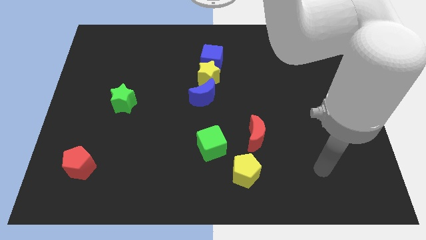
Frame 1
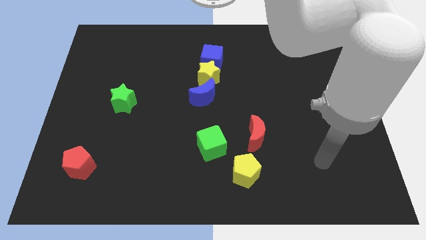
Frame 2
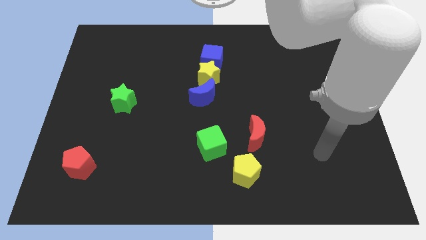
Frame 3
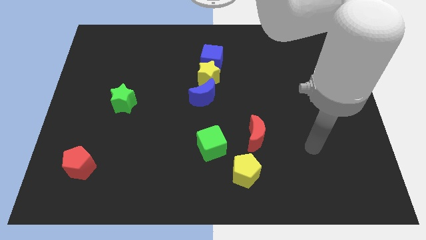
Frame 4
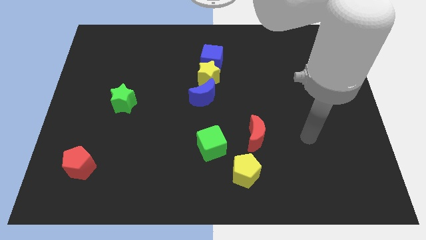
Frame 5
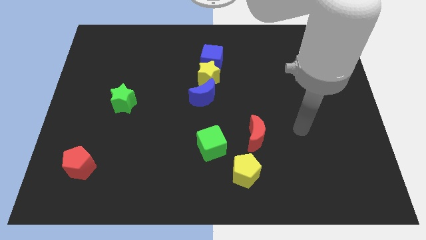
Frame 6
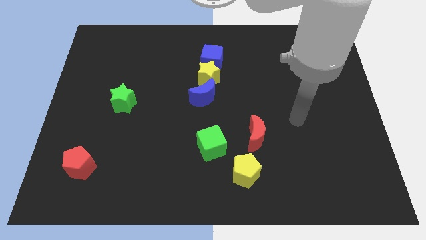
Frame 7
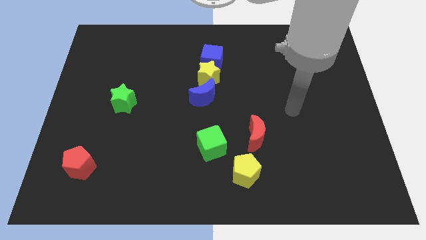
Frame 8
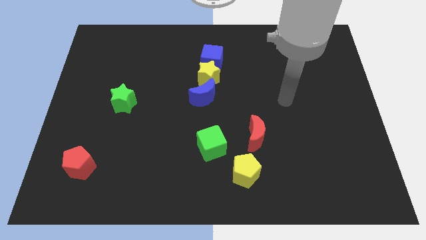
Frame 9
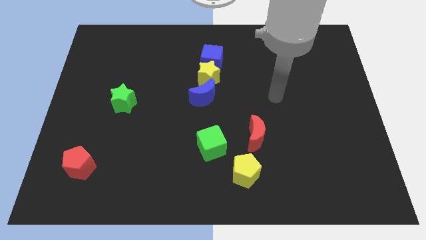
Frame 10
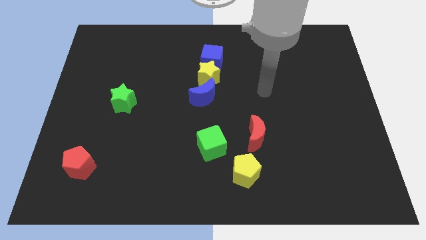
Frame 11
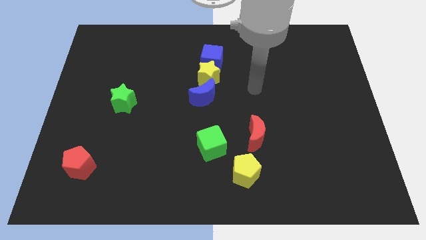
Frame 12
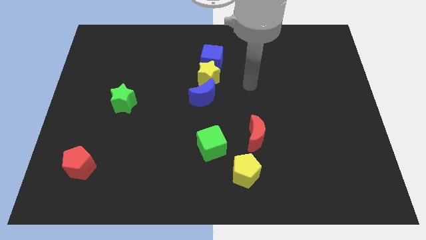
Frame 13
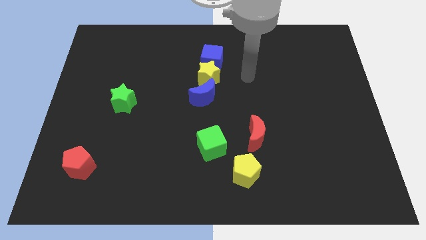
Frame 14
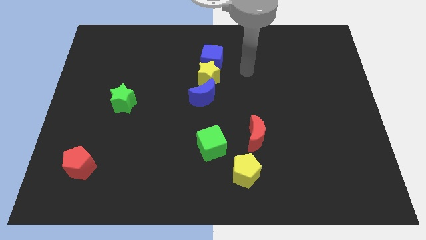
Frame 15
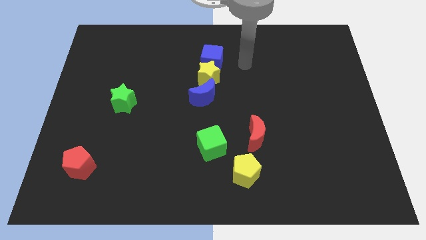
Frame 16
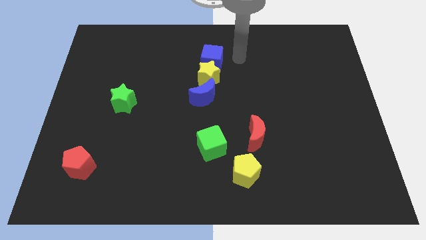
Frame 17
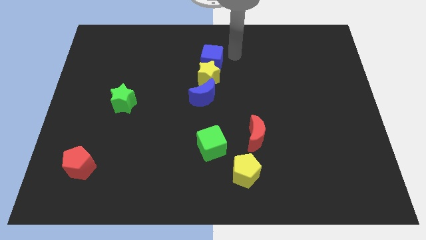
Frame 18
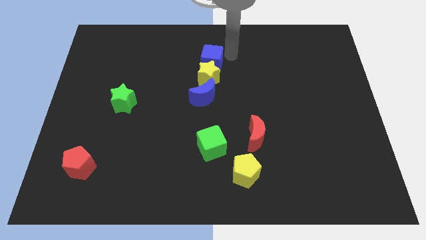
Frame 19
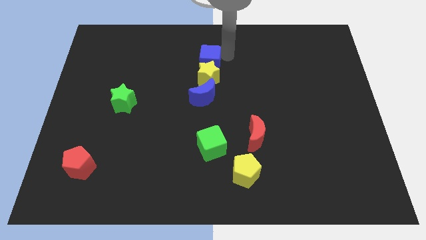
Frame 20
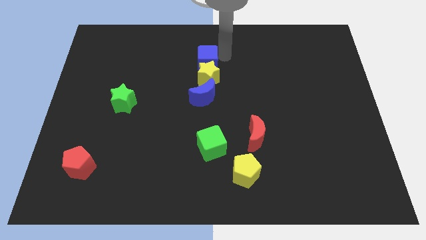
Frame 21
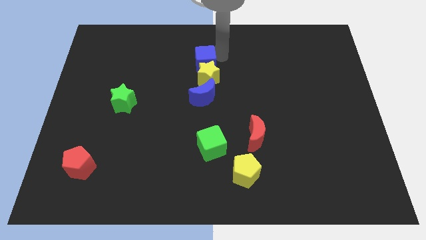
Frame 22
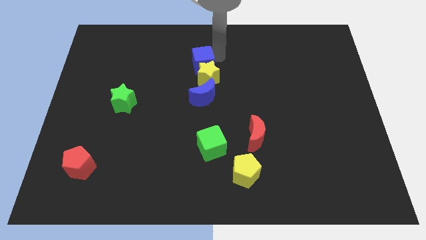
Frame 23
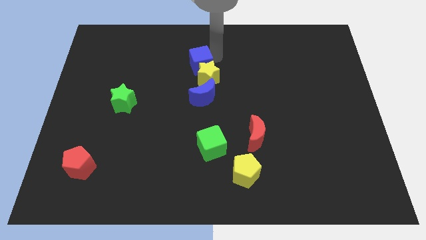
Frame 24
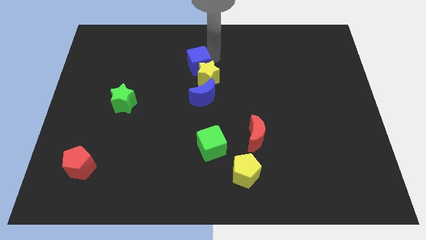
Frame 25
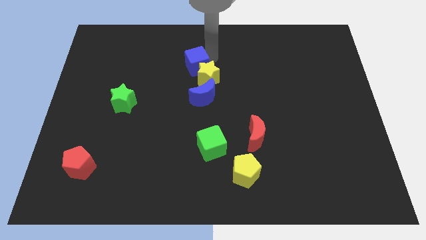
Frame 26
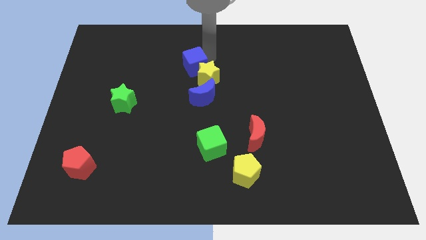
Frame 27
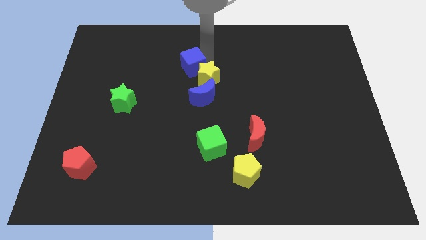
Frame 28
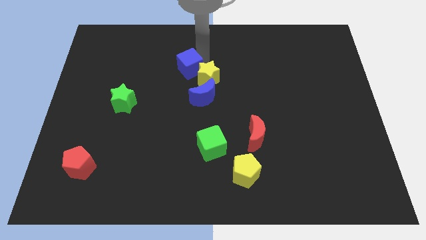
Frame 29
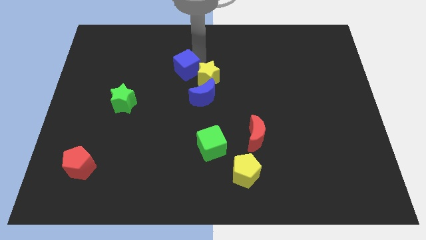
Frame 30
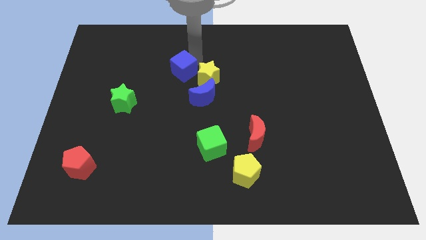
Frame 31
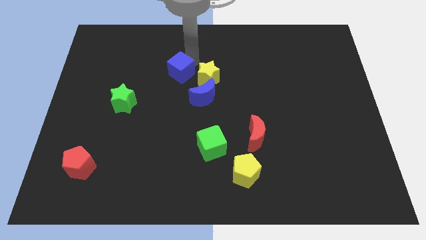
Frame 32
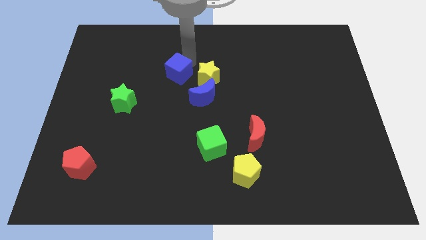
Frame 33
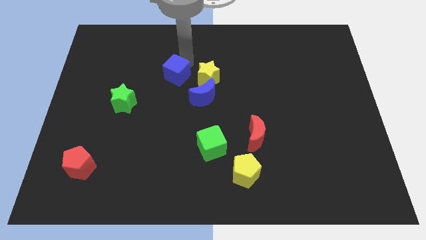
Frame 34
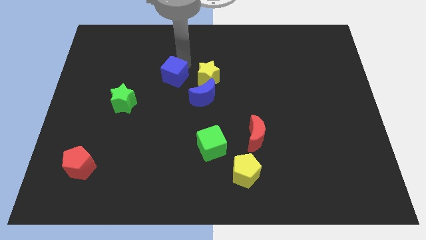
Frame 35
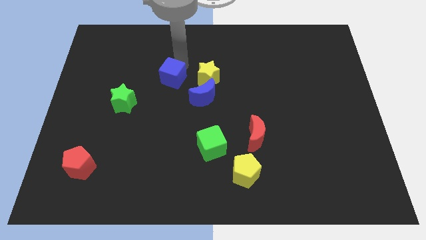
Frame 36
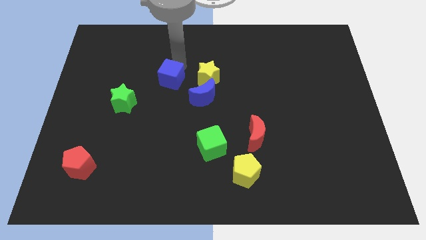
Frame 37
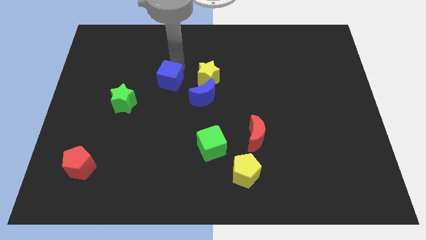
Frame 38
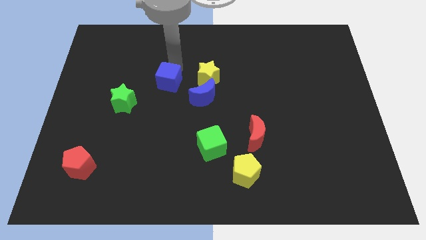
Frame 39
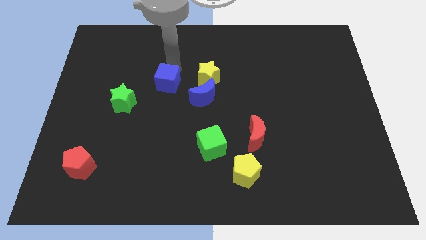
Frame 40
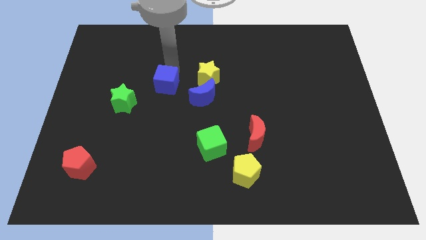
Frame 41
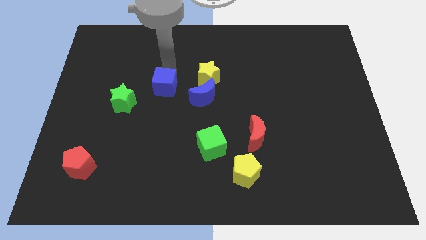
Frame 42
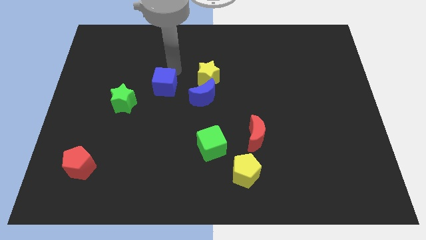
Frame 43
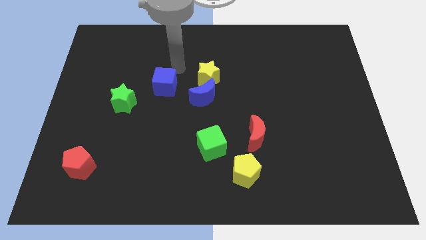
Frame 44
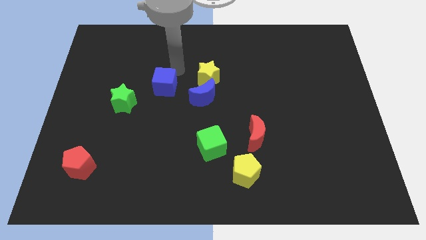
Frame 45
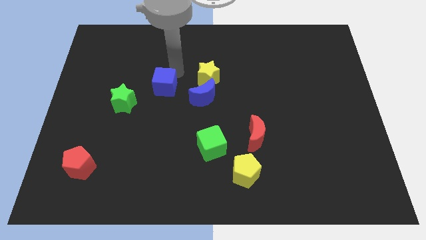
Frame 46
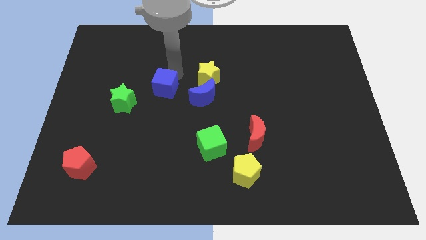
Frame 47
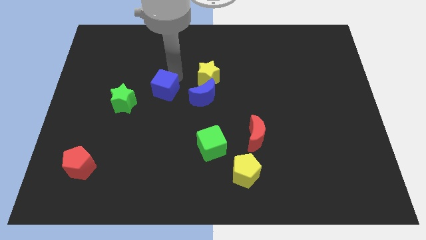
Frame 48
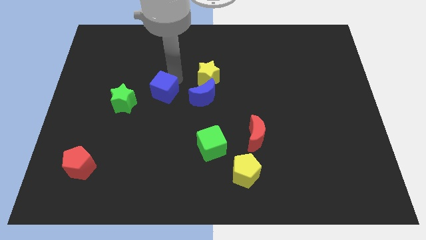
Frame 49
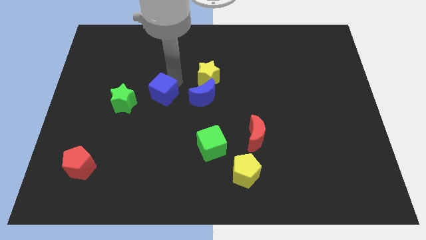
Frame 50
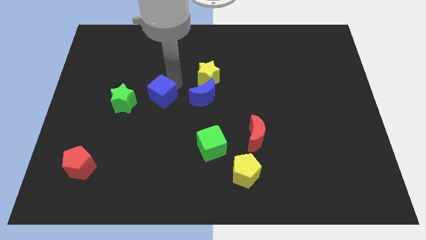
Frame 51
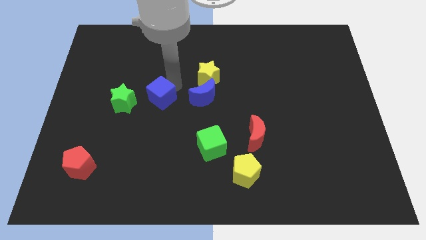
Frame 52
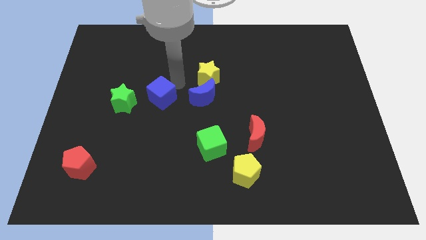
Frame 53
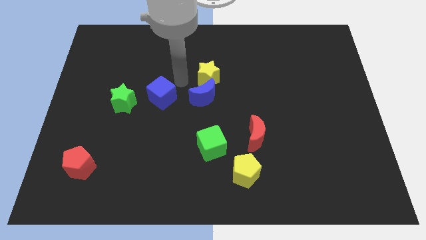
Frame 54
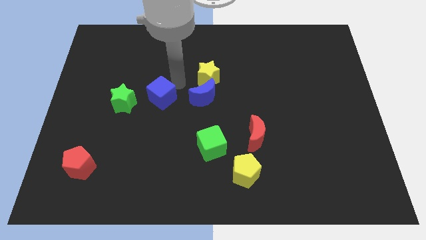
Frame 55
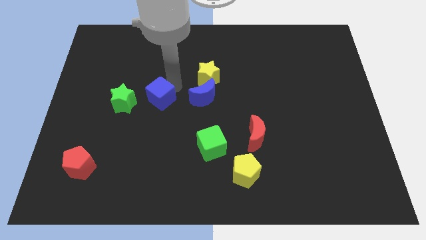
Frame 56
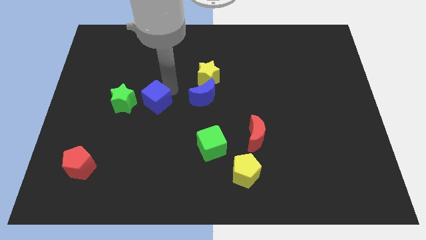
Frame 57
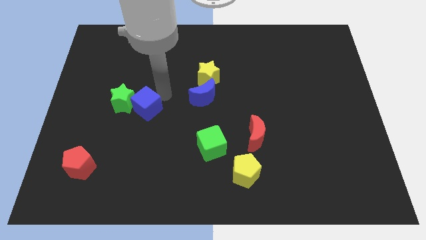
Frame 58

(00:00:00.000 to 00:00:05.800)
move the blue cube downwards and left

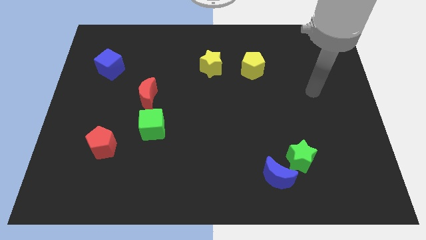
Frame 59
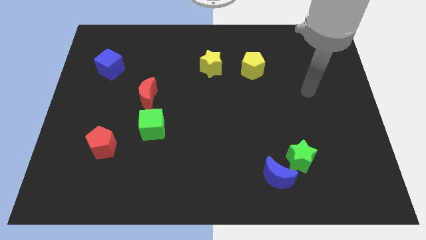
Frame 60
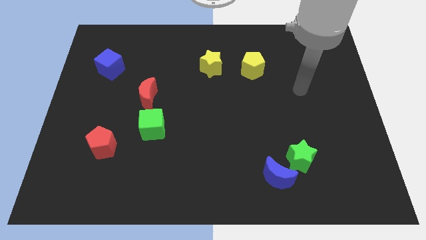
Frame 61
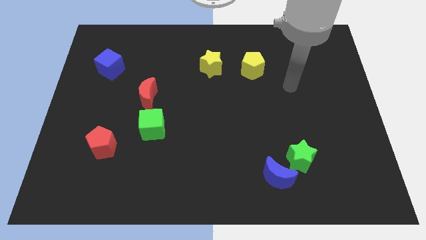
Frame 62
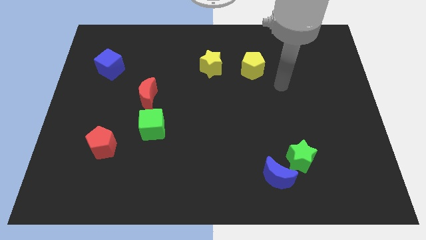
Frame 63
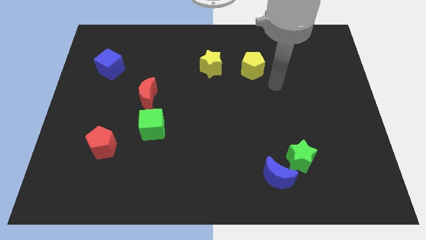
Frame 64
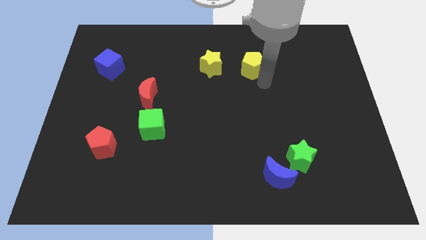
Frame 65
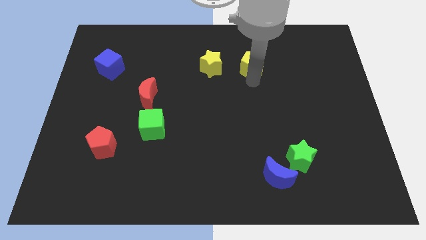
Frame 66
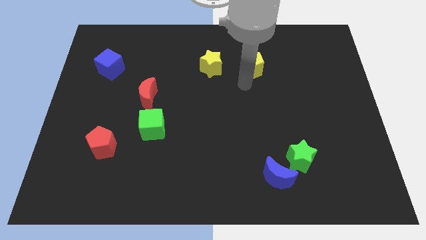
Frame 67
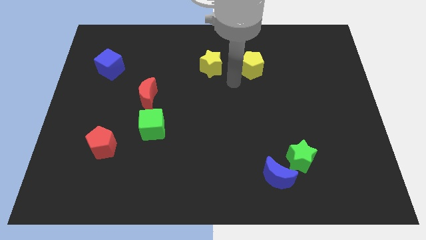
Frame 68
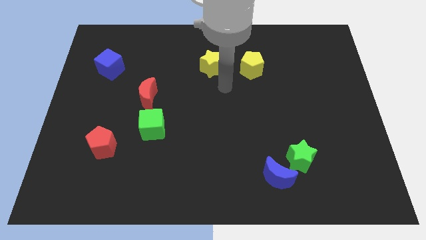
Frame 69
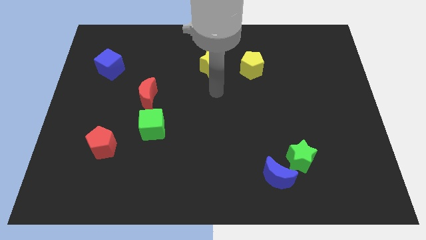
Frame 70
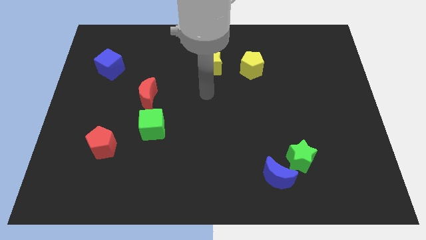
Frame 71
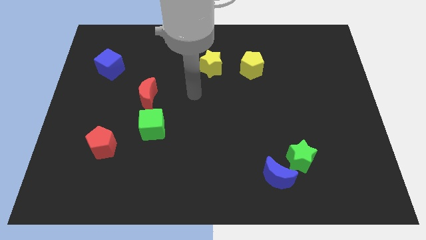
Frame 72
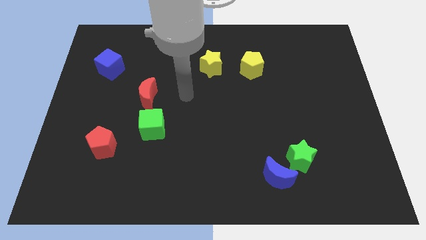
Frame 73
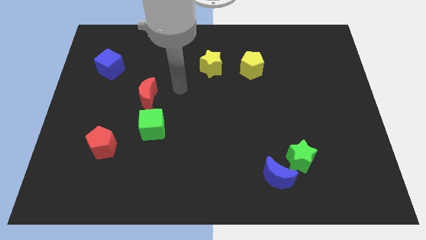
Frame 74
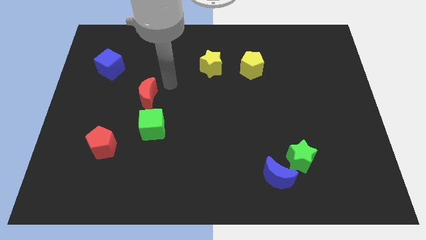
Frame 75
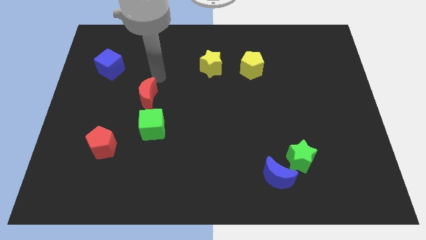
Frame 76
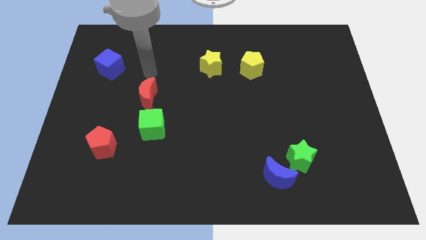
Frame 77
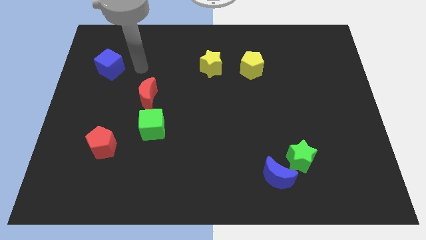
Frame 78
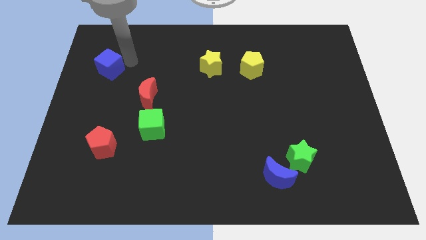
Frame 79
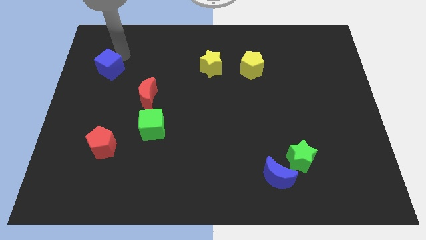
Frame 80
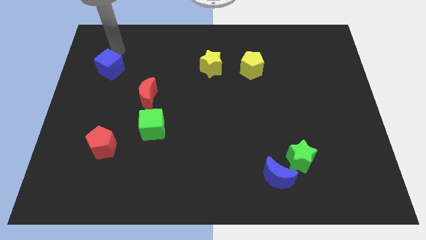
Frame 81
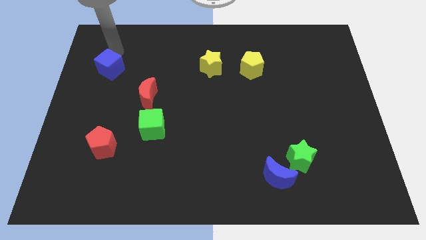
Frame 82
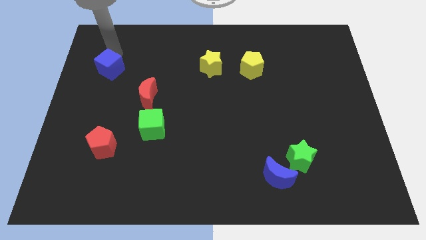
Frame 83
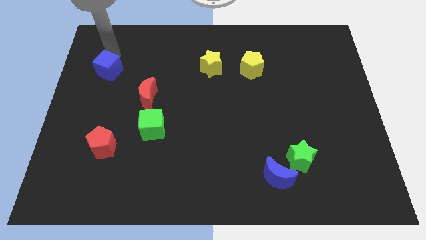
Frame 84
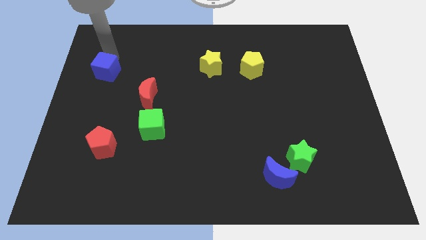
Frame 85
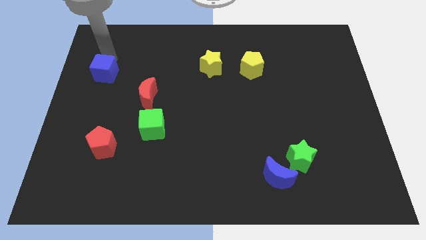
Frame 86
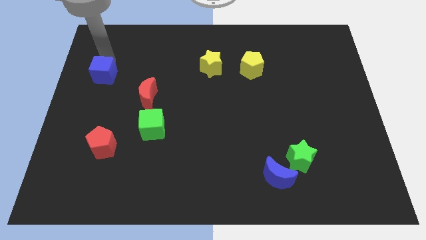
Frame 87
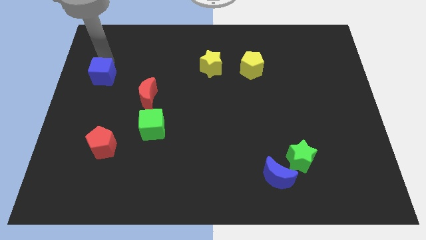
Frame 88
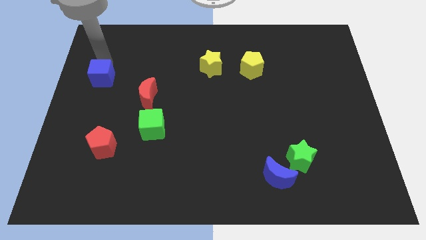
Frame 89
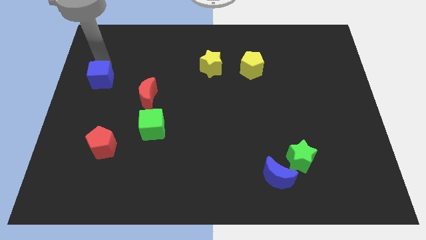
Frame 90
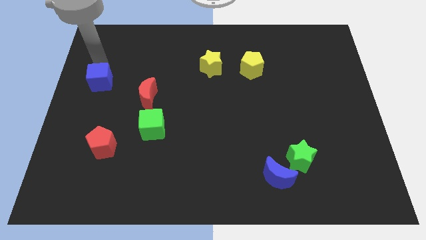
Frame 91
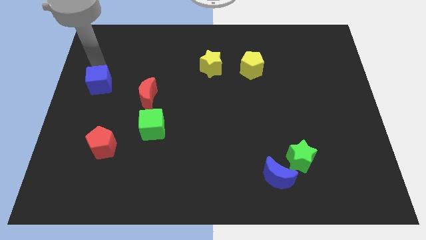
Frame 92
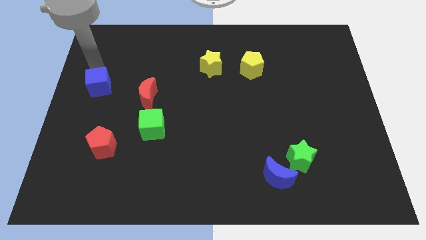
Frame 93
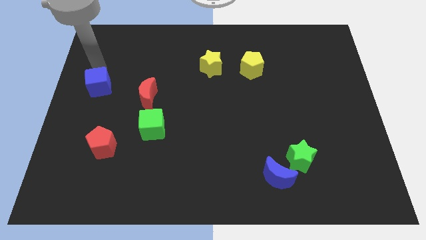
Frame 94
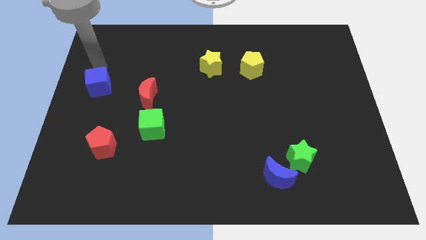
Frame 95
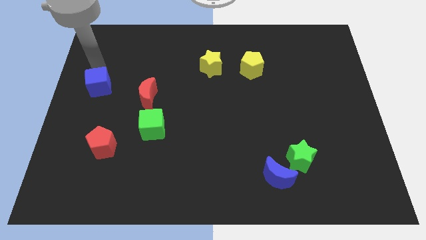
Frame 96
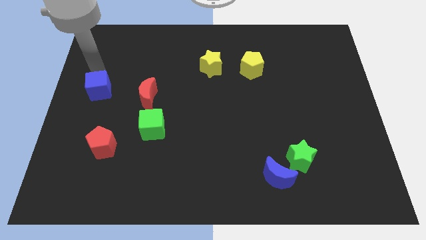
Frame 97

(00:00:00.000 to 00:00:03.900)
move the blue cube a bit downwards
